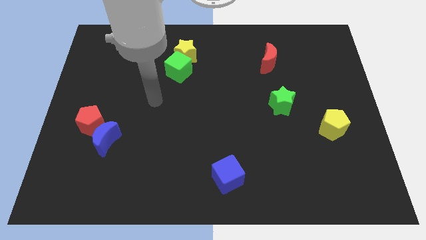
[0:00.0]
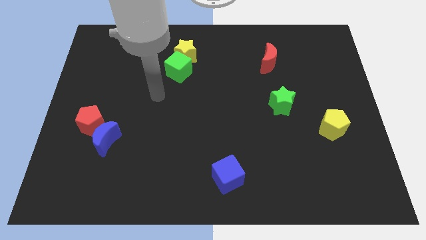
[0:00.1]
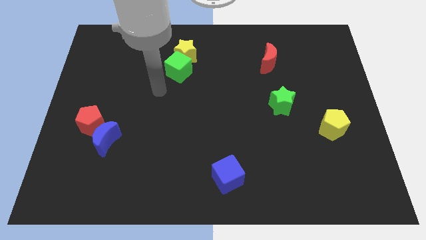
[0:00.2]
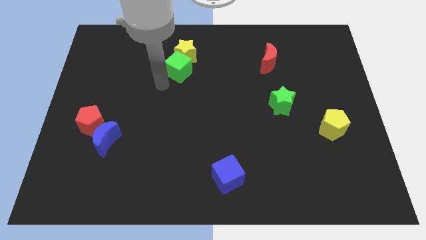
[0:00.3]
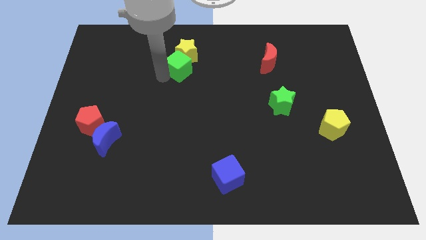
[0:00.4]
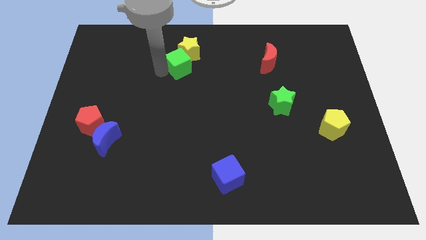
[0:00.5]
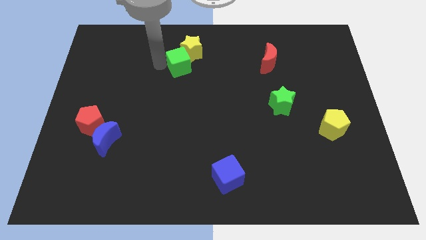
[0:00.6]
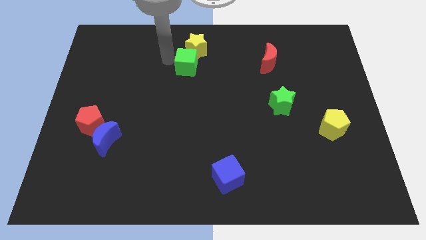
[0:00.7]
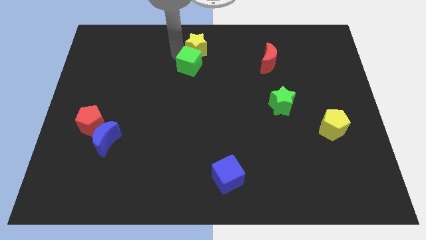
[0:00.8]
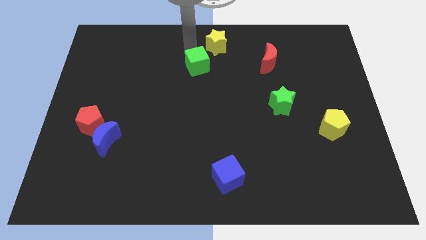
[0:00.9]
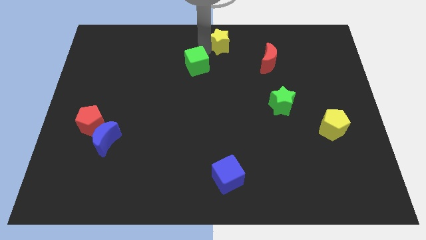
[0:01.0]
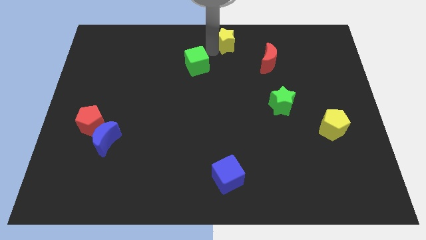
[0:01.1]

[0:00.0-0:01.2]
separate the green cube from the yellow star

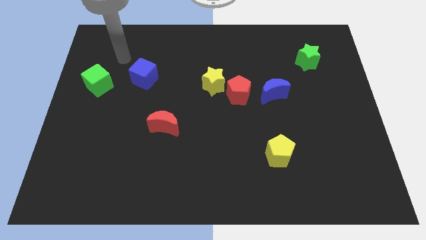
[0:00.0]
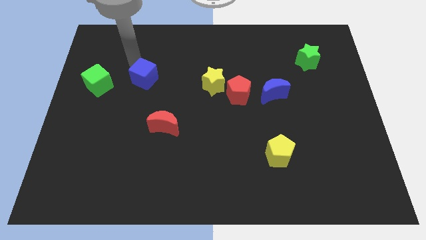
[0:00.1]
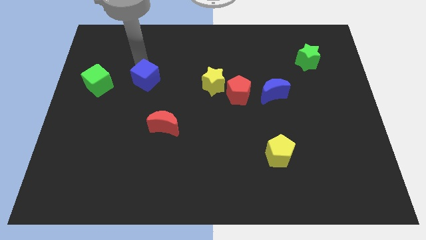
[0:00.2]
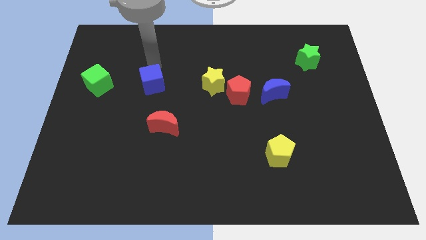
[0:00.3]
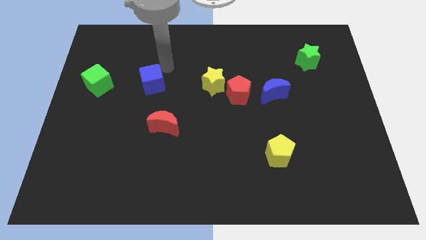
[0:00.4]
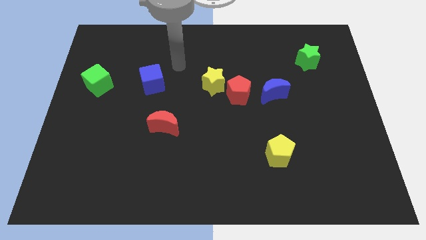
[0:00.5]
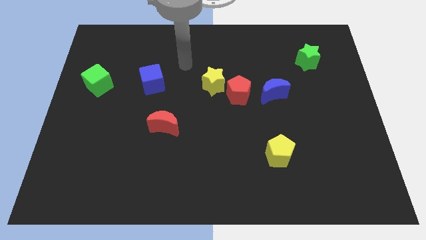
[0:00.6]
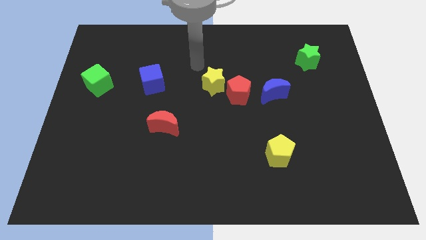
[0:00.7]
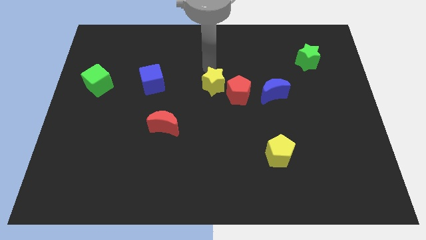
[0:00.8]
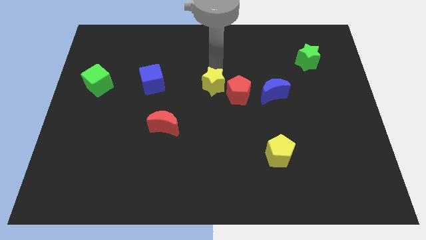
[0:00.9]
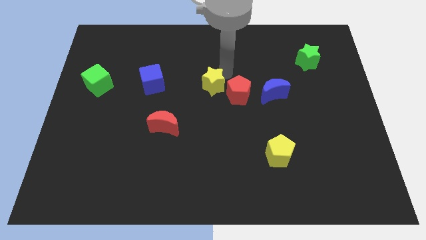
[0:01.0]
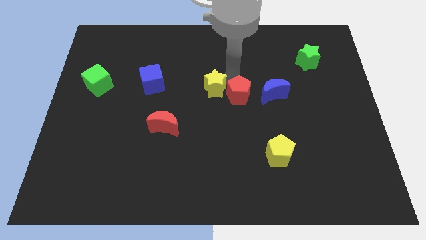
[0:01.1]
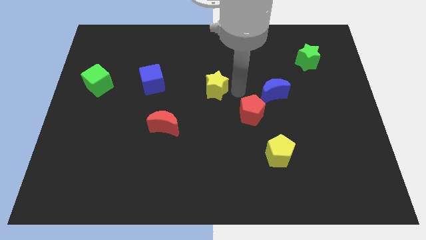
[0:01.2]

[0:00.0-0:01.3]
pull the yellow star apart from the red pentagon

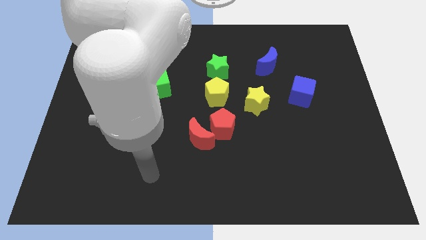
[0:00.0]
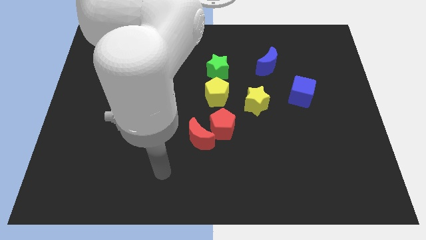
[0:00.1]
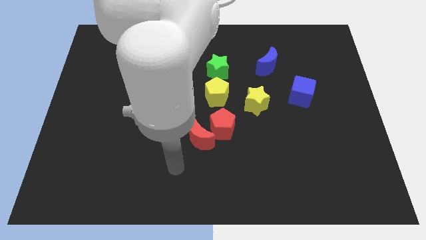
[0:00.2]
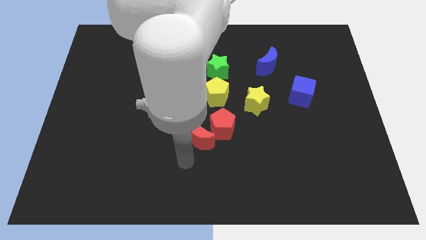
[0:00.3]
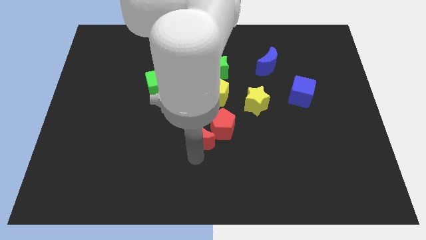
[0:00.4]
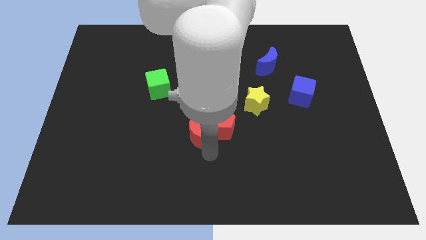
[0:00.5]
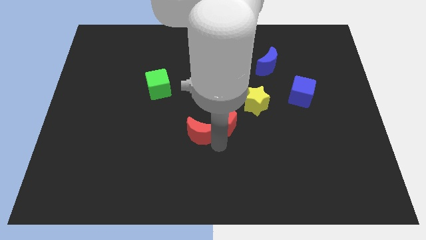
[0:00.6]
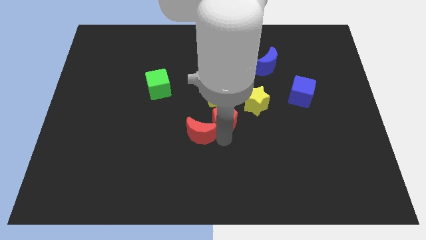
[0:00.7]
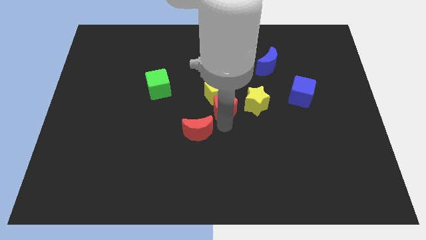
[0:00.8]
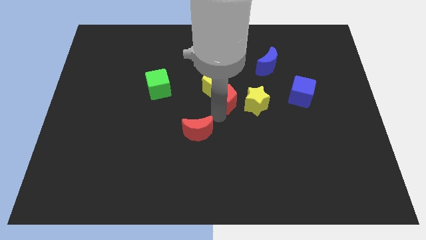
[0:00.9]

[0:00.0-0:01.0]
pull the red moon apart from the red pentagon

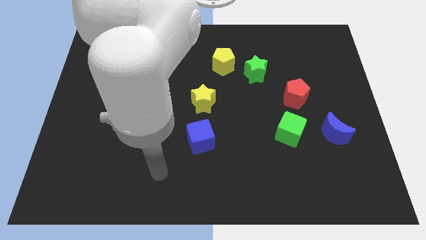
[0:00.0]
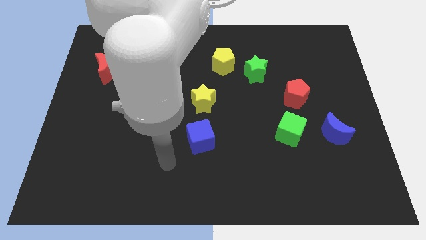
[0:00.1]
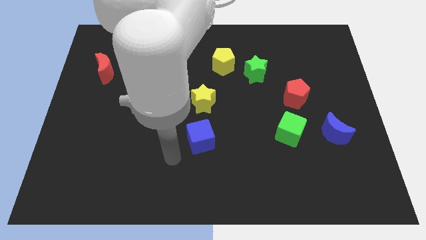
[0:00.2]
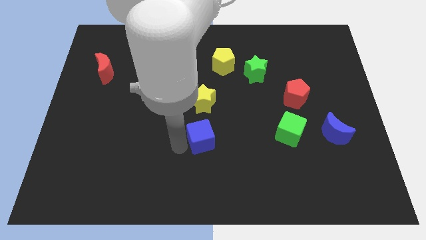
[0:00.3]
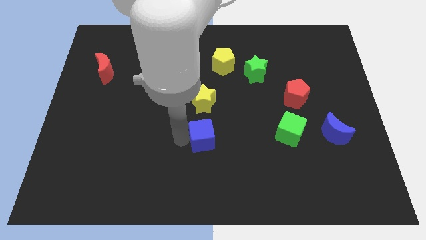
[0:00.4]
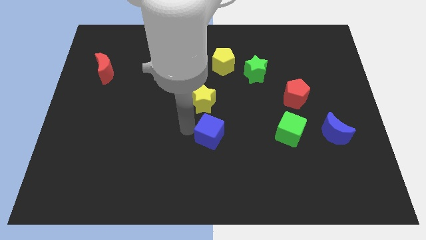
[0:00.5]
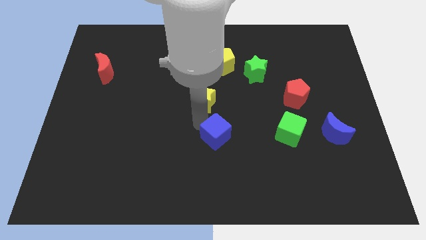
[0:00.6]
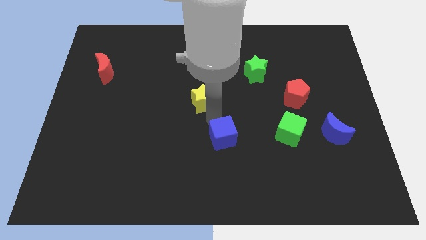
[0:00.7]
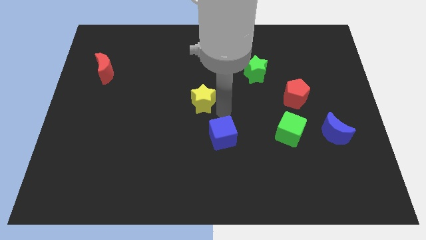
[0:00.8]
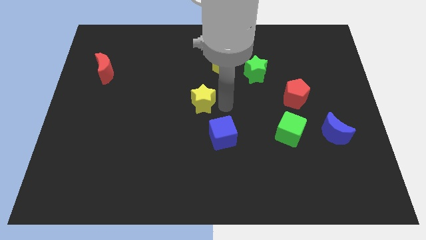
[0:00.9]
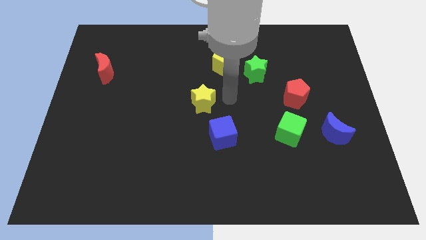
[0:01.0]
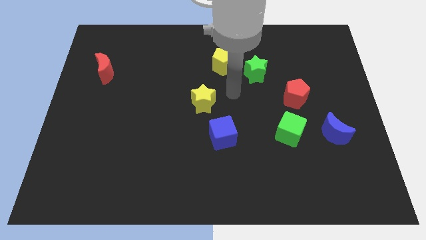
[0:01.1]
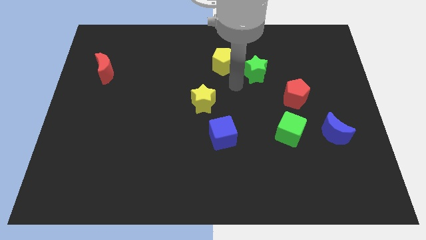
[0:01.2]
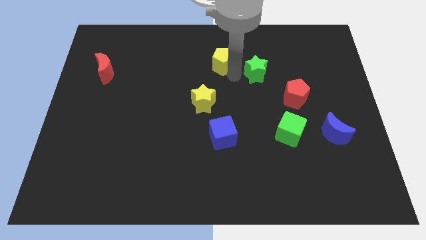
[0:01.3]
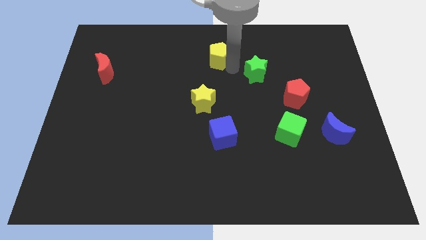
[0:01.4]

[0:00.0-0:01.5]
move the green star away from the yellow pentagon

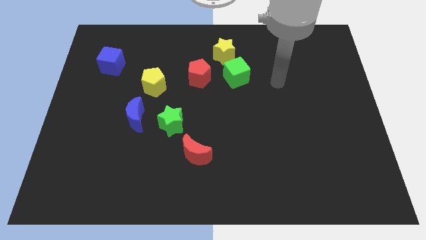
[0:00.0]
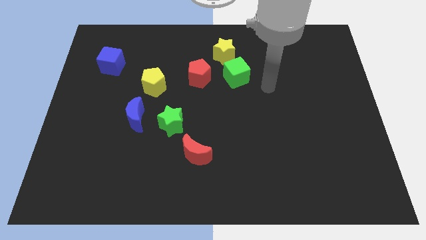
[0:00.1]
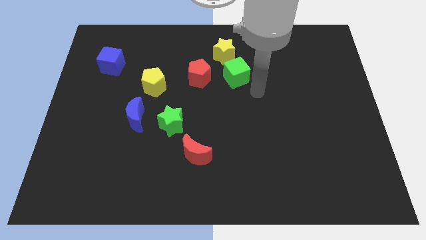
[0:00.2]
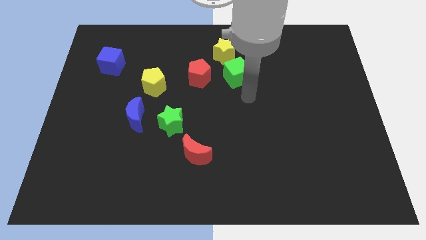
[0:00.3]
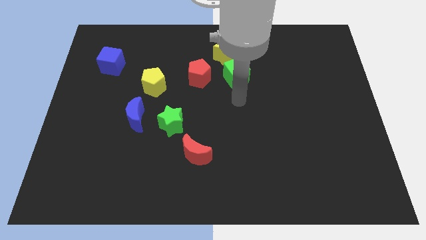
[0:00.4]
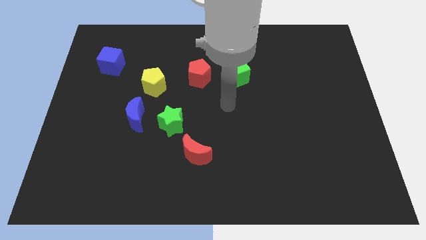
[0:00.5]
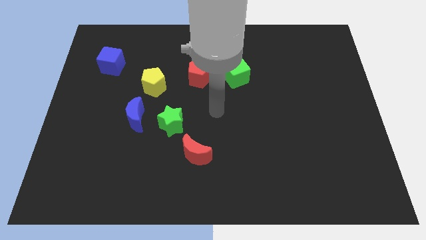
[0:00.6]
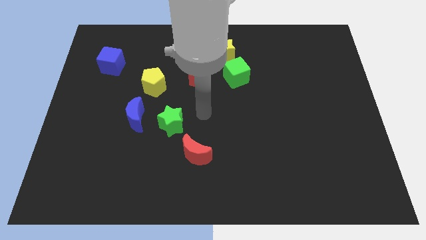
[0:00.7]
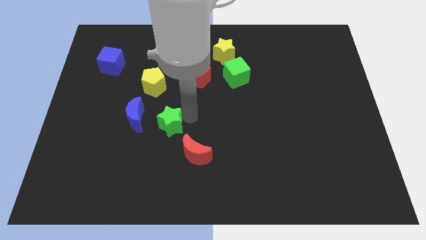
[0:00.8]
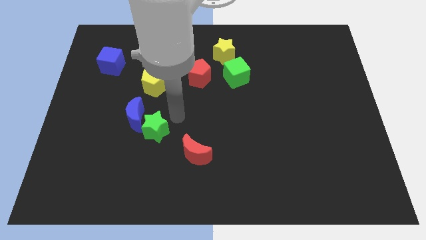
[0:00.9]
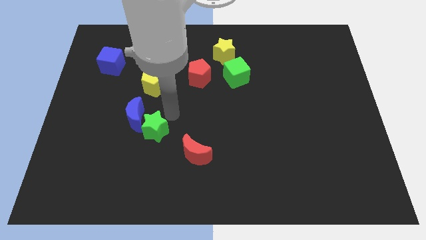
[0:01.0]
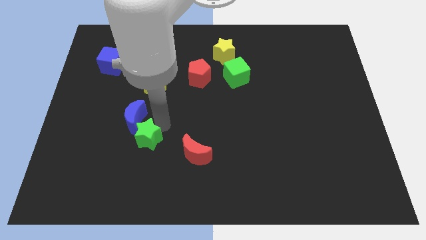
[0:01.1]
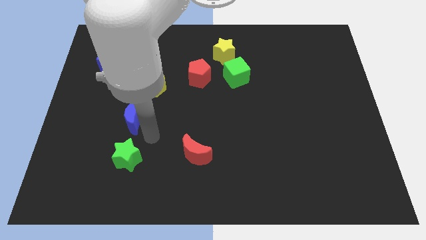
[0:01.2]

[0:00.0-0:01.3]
move the blue moon away from the green star

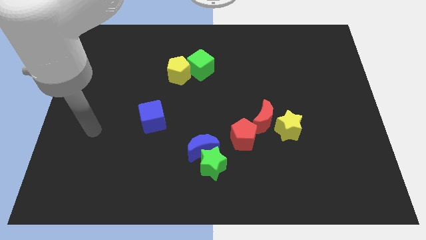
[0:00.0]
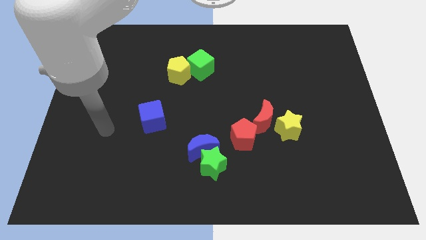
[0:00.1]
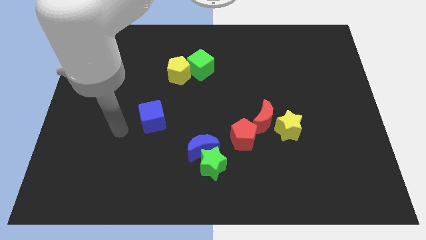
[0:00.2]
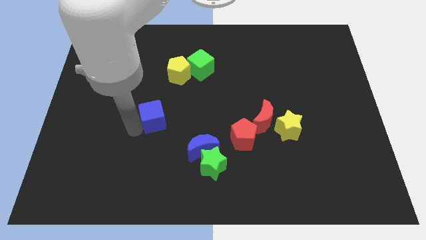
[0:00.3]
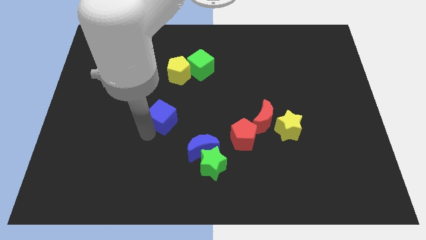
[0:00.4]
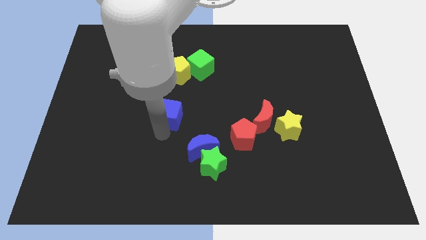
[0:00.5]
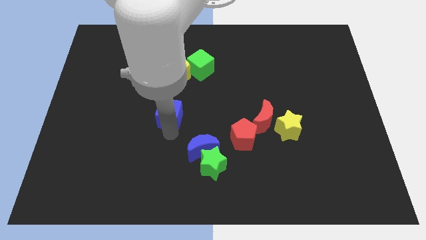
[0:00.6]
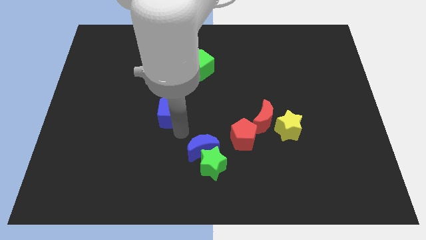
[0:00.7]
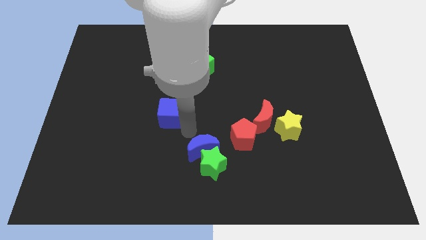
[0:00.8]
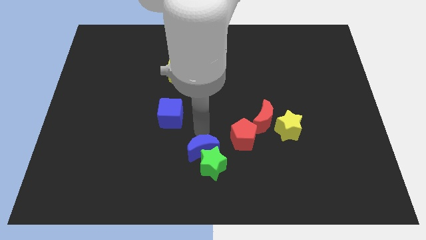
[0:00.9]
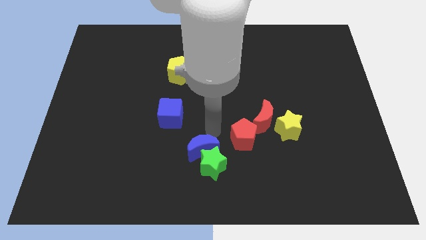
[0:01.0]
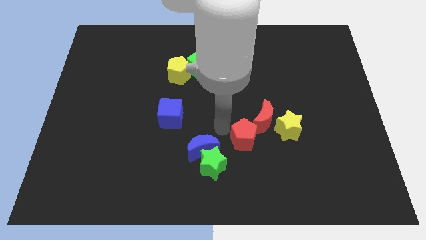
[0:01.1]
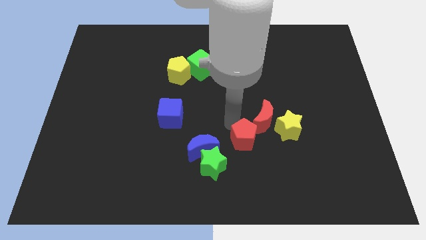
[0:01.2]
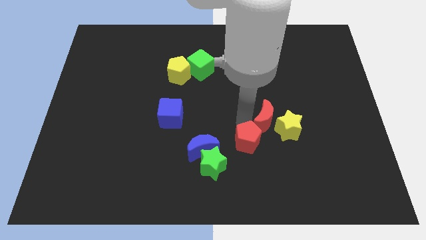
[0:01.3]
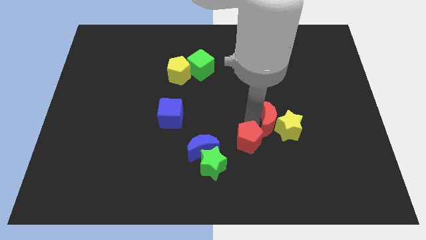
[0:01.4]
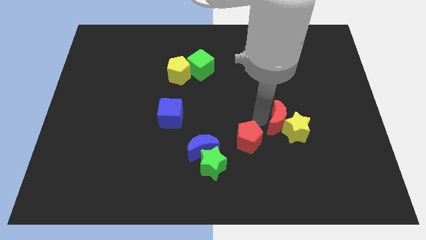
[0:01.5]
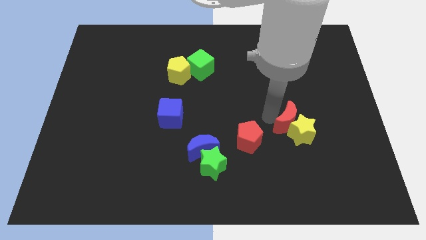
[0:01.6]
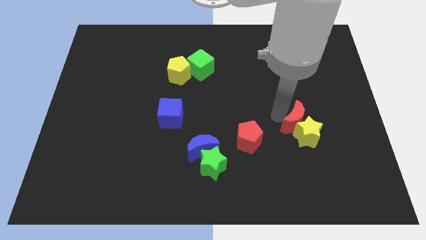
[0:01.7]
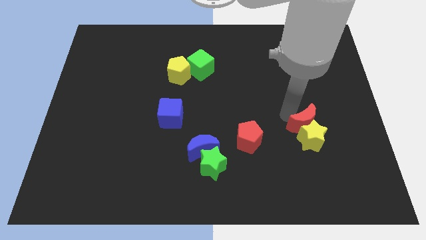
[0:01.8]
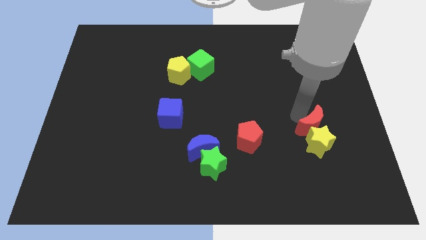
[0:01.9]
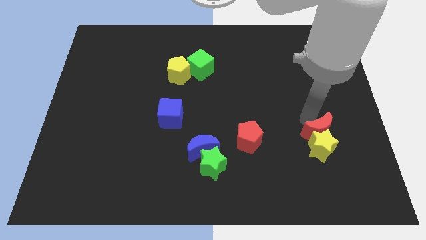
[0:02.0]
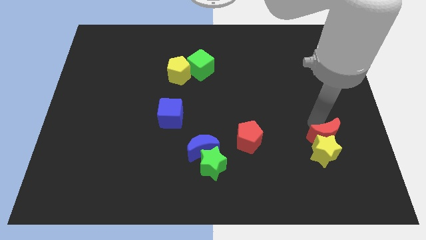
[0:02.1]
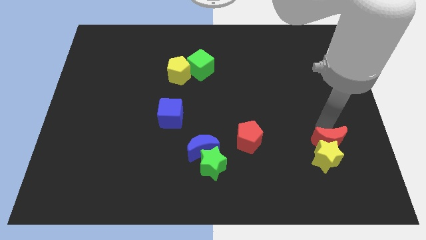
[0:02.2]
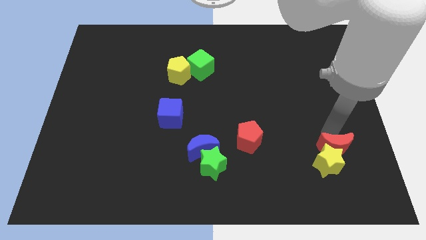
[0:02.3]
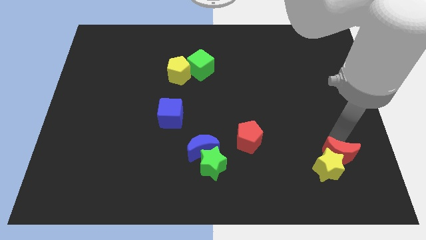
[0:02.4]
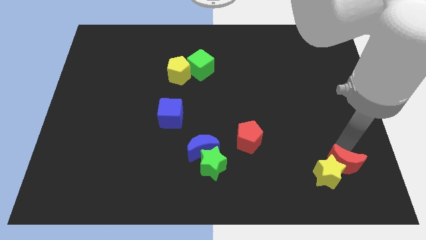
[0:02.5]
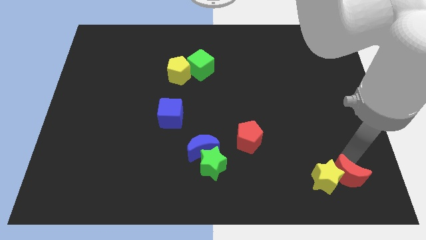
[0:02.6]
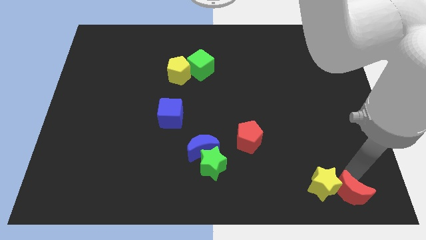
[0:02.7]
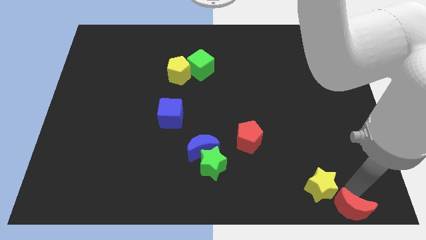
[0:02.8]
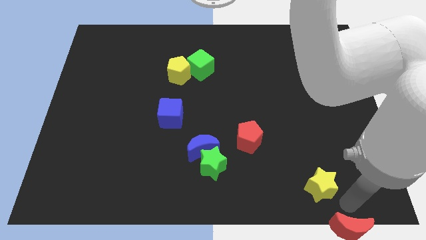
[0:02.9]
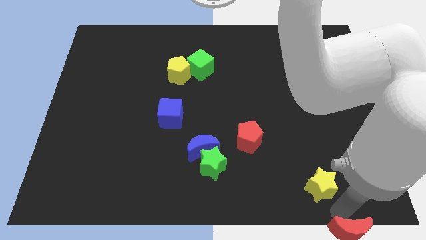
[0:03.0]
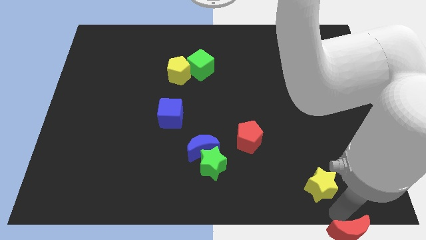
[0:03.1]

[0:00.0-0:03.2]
pull the yellow star apart from the red moon
